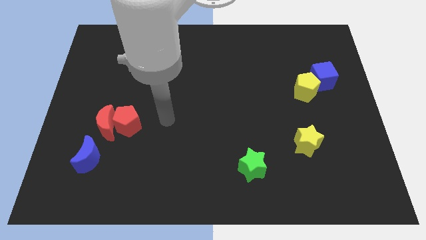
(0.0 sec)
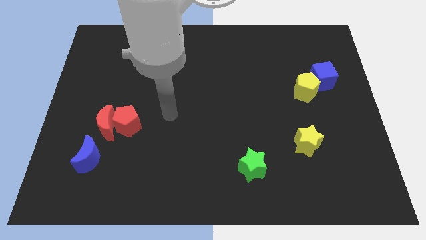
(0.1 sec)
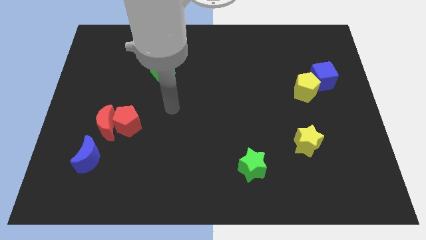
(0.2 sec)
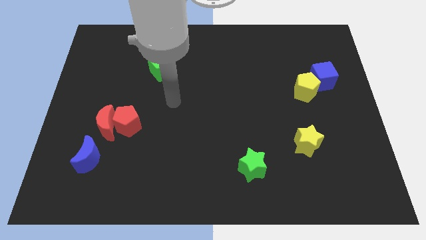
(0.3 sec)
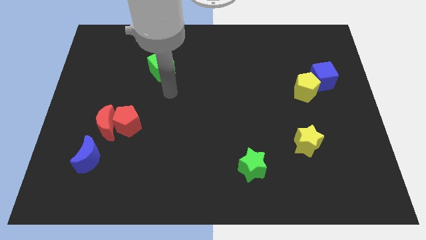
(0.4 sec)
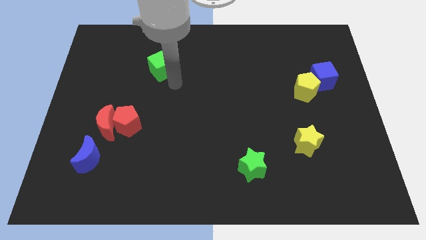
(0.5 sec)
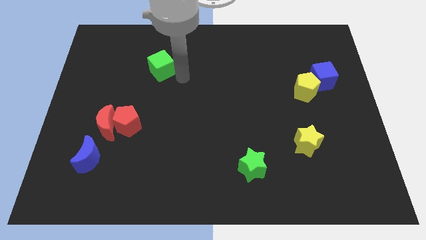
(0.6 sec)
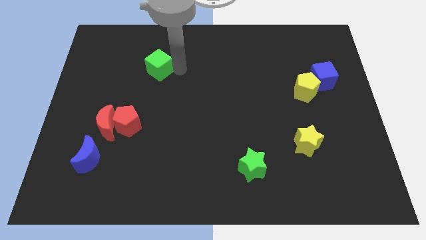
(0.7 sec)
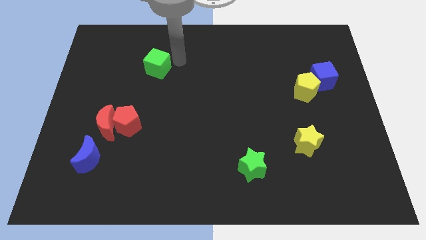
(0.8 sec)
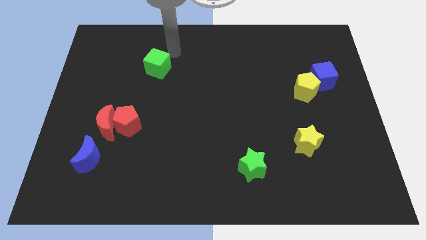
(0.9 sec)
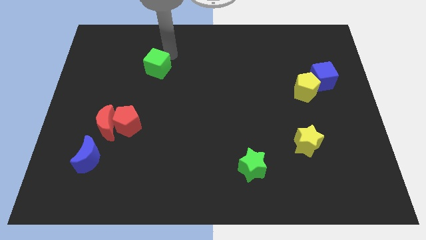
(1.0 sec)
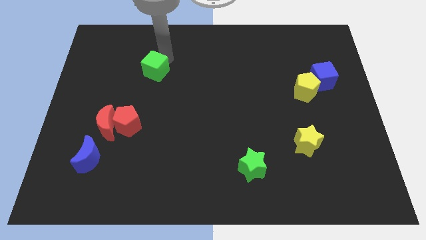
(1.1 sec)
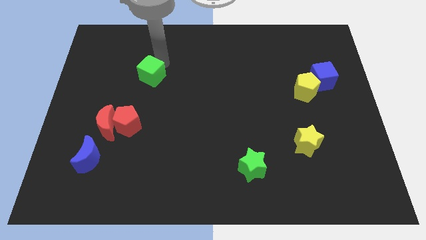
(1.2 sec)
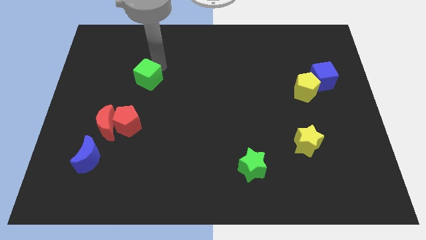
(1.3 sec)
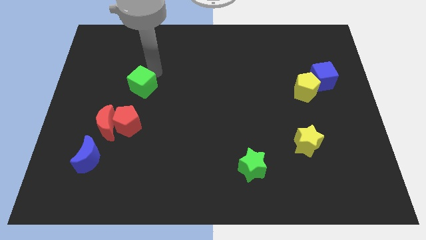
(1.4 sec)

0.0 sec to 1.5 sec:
slightly push the green cube downwards and to the left

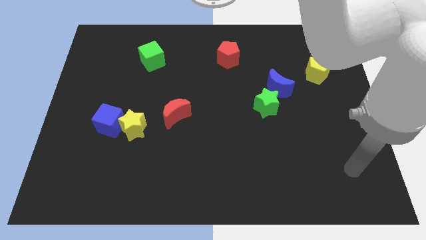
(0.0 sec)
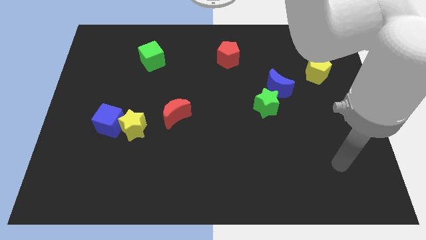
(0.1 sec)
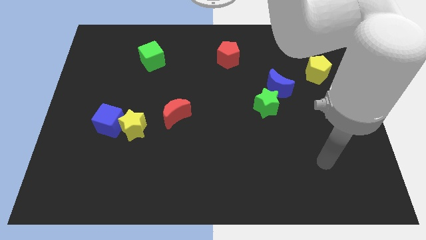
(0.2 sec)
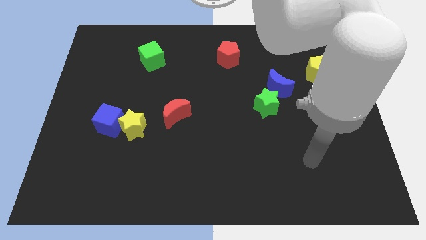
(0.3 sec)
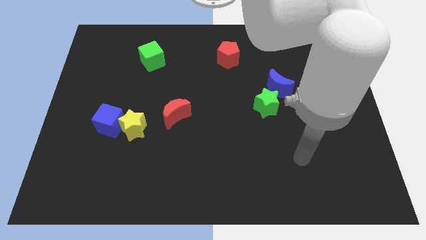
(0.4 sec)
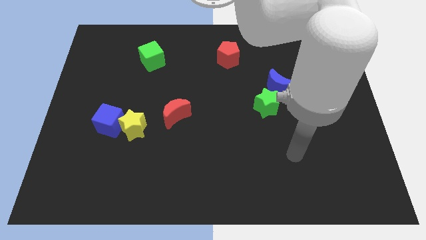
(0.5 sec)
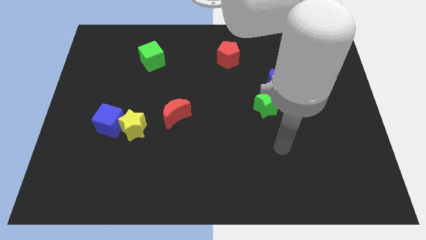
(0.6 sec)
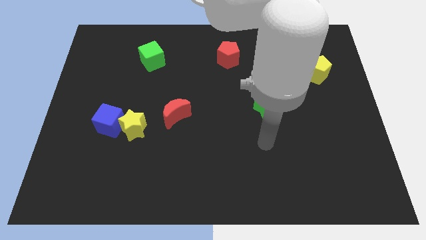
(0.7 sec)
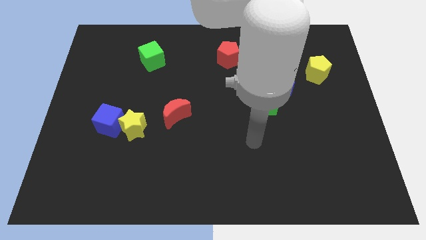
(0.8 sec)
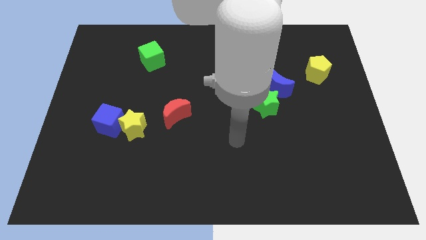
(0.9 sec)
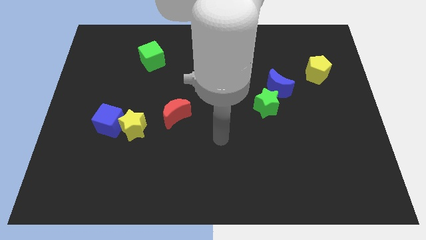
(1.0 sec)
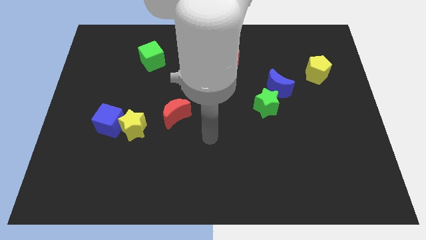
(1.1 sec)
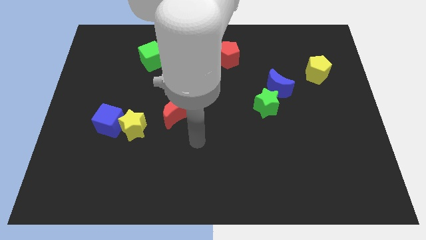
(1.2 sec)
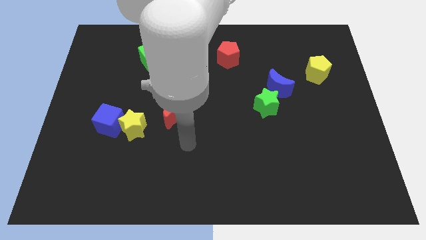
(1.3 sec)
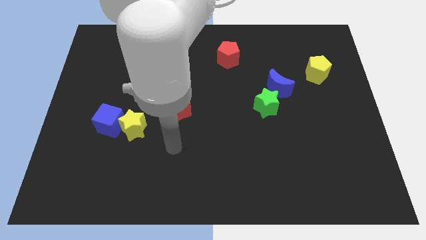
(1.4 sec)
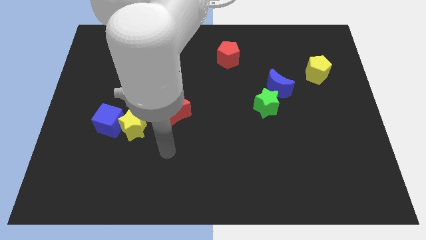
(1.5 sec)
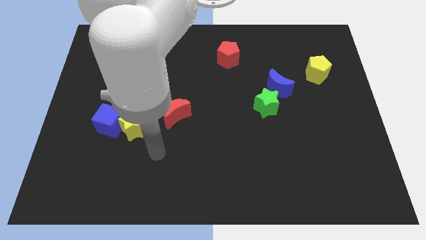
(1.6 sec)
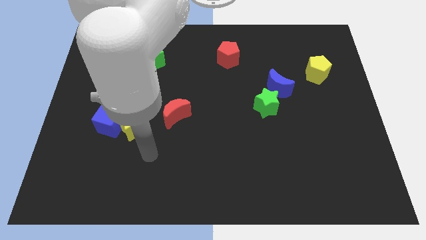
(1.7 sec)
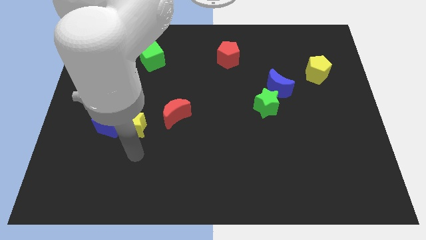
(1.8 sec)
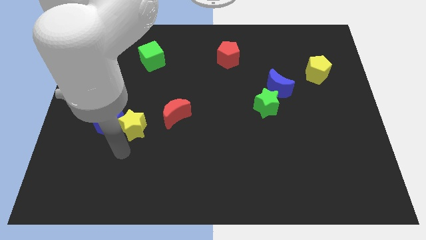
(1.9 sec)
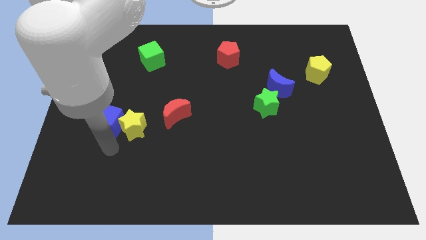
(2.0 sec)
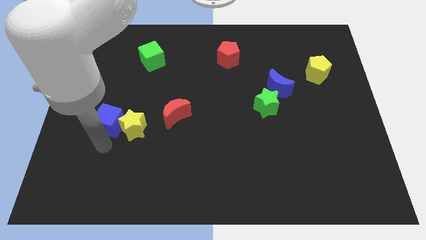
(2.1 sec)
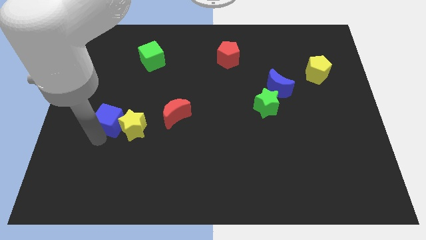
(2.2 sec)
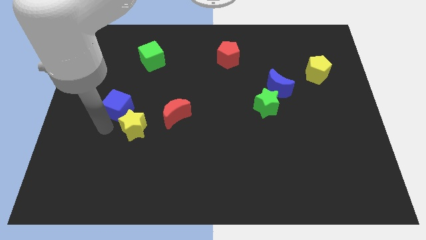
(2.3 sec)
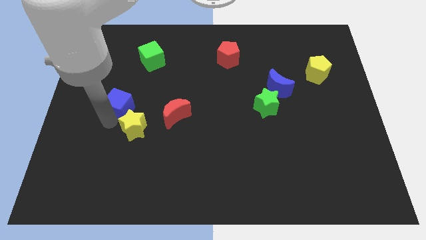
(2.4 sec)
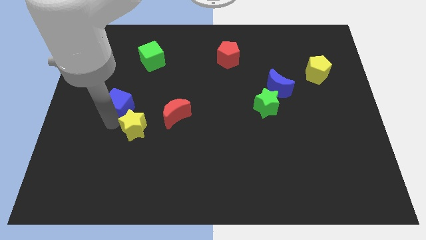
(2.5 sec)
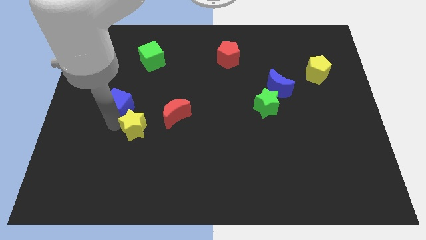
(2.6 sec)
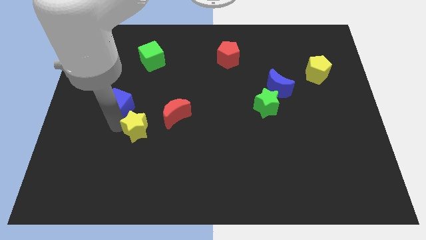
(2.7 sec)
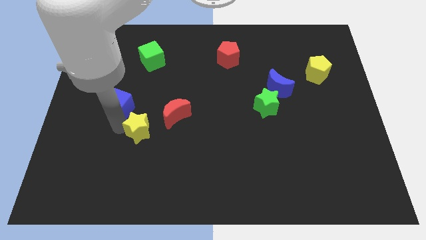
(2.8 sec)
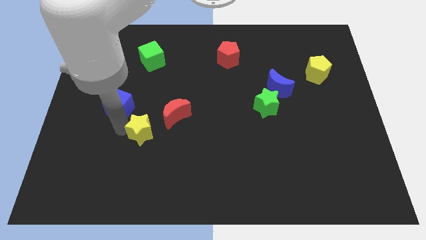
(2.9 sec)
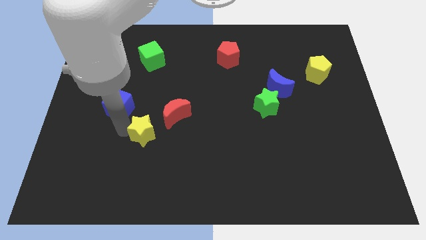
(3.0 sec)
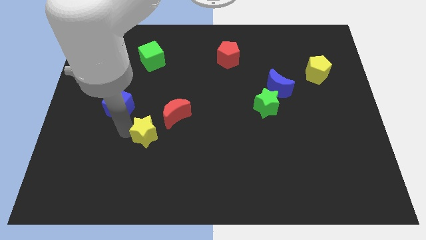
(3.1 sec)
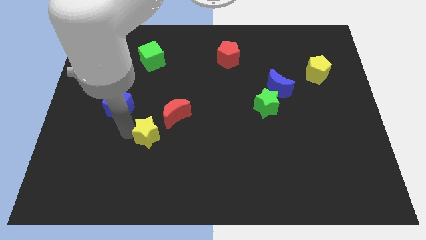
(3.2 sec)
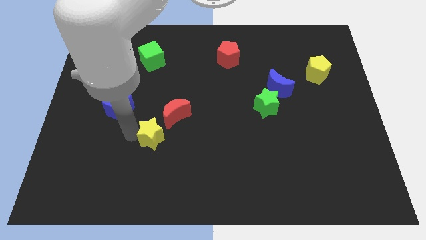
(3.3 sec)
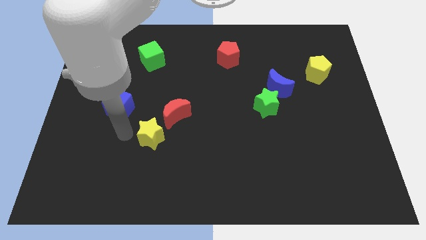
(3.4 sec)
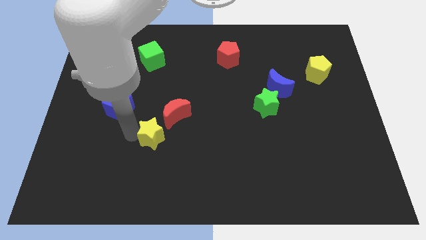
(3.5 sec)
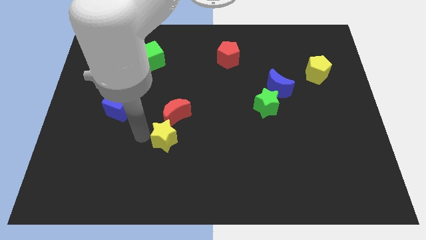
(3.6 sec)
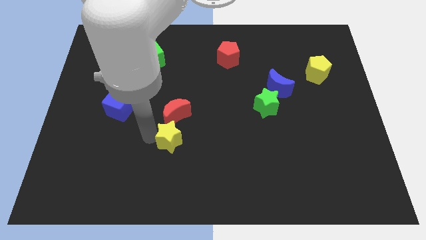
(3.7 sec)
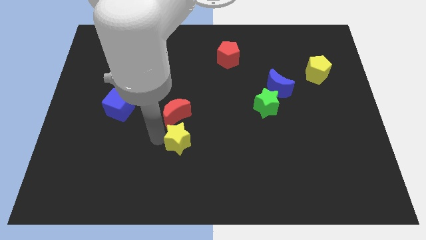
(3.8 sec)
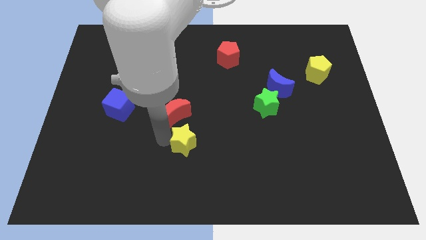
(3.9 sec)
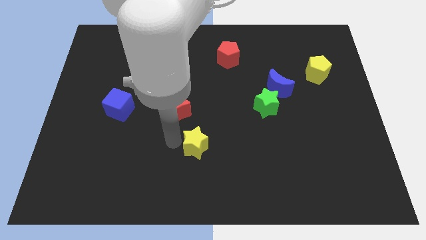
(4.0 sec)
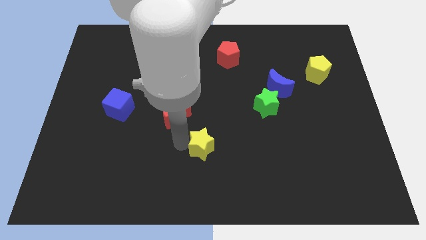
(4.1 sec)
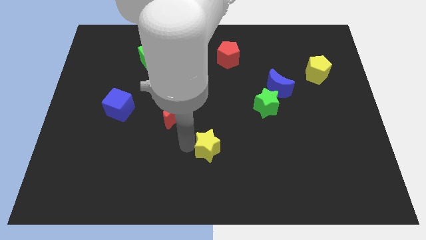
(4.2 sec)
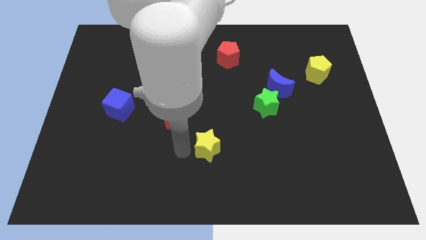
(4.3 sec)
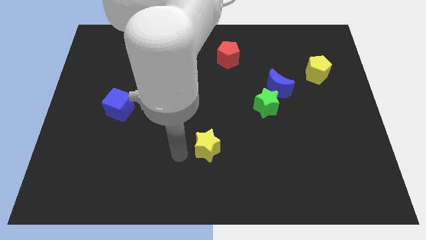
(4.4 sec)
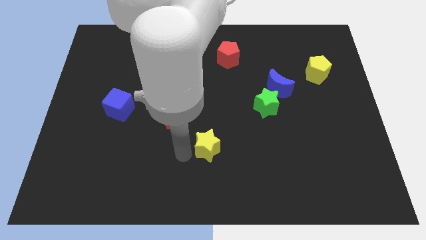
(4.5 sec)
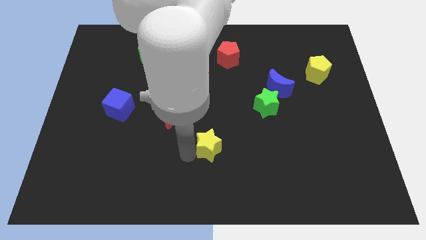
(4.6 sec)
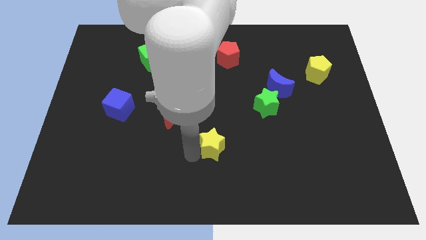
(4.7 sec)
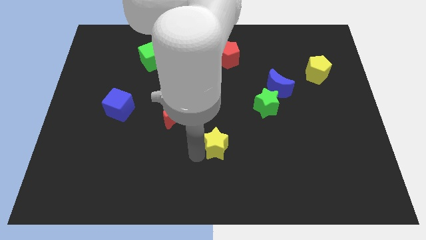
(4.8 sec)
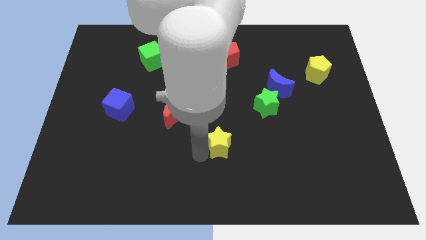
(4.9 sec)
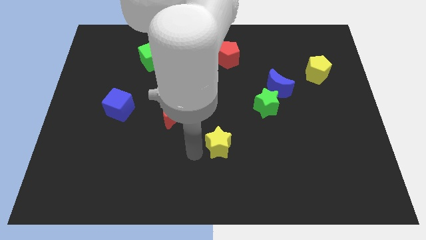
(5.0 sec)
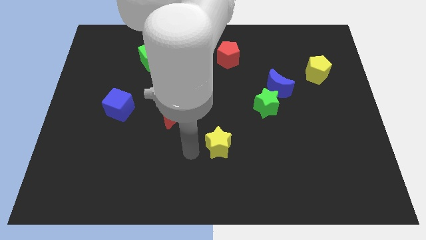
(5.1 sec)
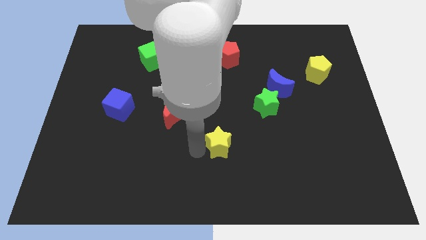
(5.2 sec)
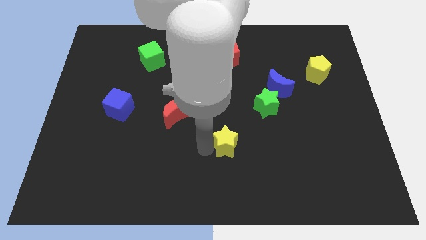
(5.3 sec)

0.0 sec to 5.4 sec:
push the yellow star to the right

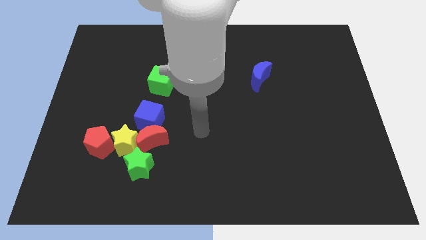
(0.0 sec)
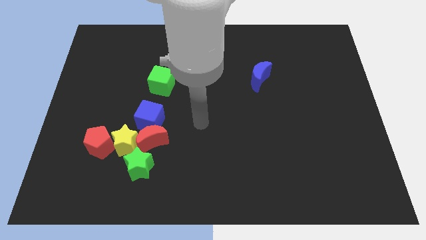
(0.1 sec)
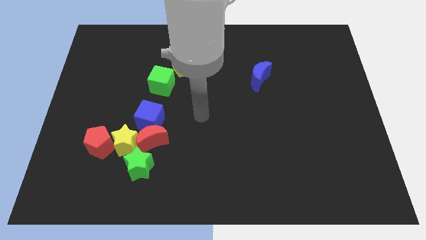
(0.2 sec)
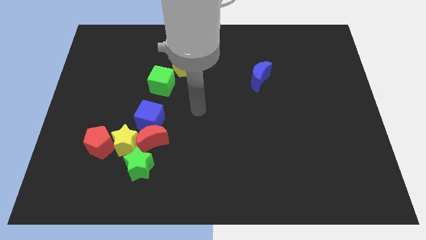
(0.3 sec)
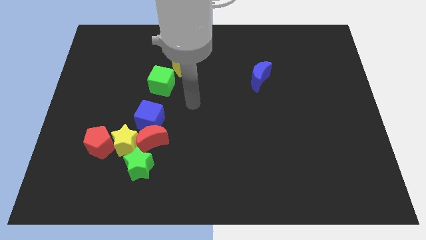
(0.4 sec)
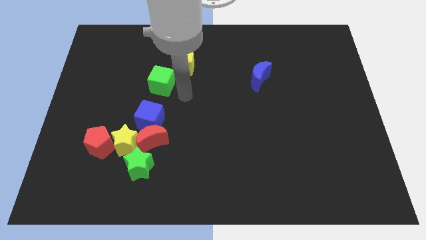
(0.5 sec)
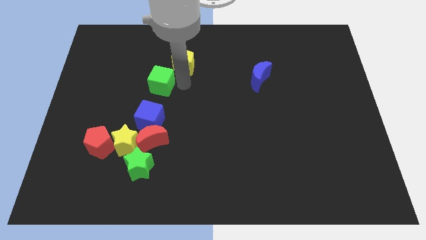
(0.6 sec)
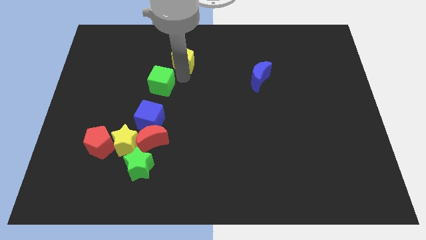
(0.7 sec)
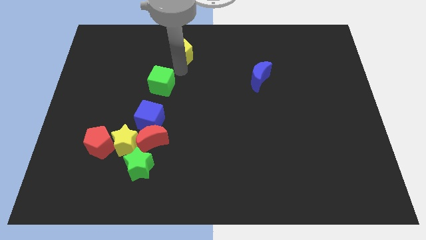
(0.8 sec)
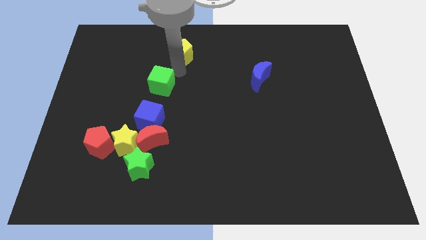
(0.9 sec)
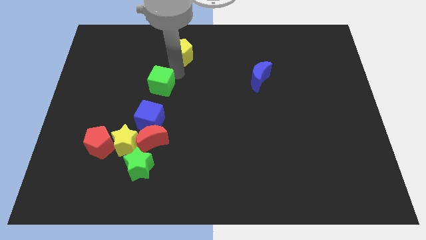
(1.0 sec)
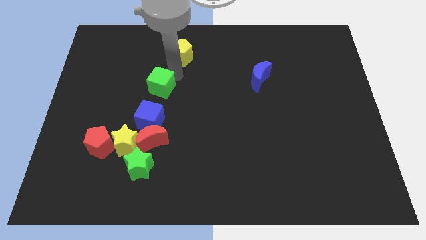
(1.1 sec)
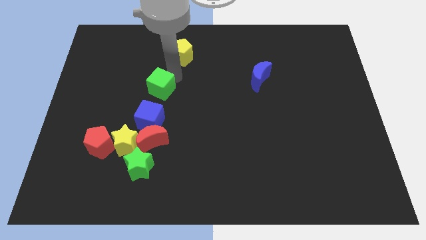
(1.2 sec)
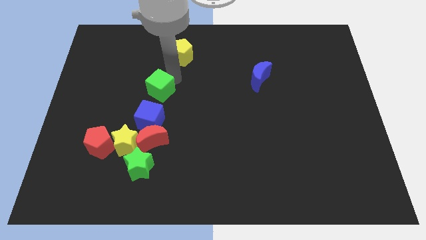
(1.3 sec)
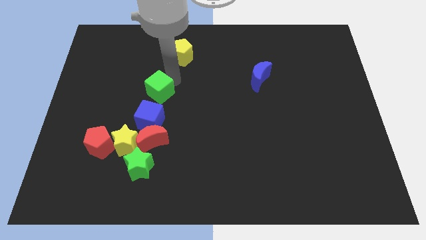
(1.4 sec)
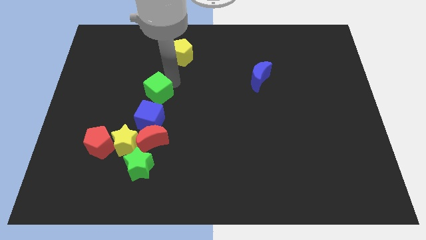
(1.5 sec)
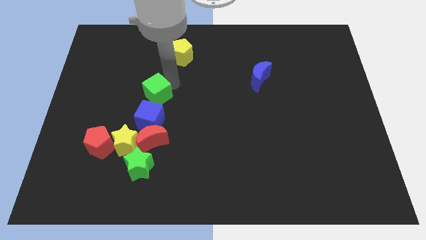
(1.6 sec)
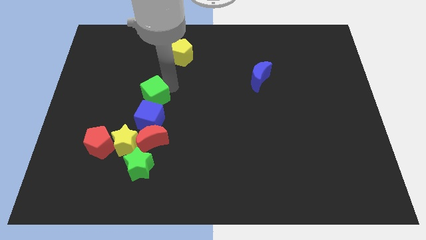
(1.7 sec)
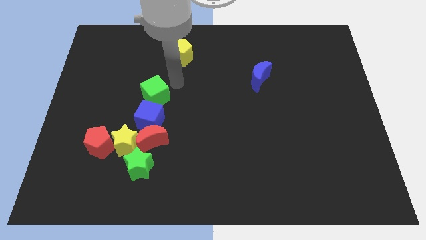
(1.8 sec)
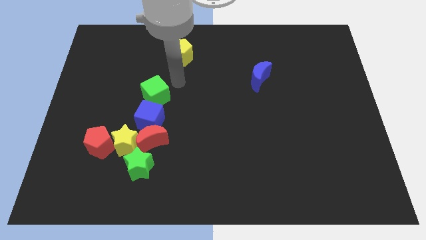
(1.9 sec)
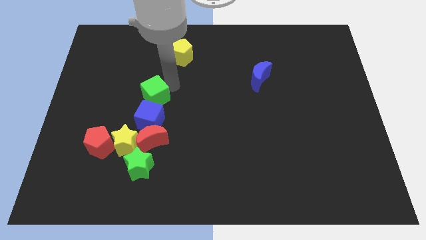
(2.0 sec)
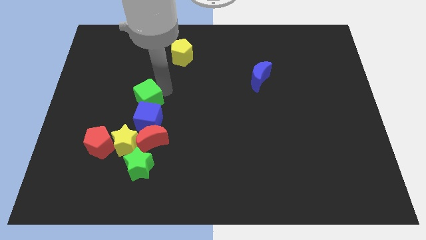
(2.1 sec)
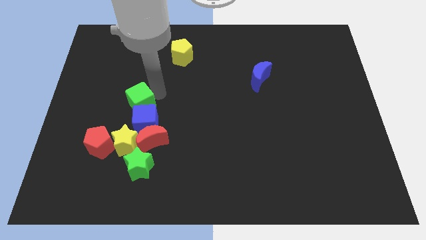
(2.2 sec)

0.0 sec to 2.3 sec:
move the green cube somewhat diagonally down and to the left
